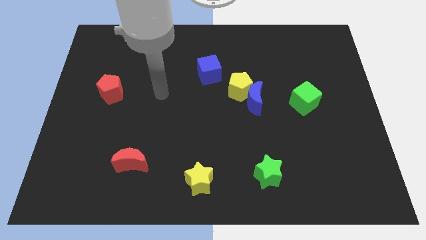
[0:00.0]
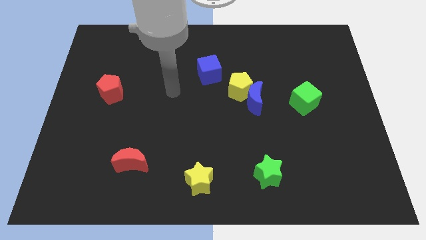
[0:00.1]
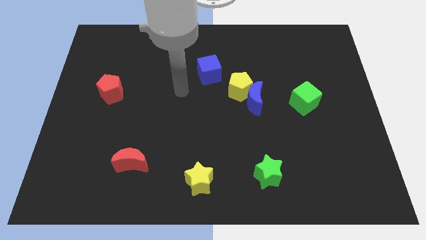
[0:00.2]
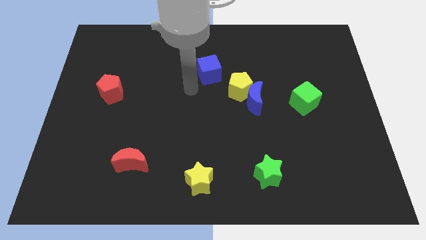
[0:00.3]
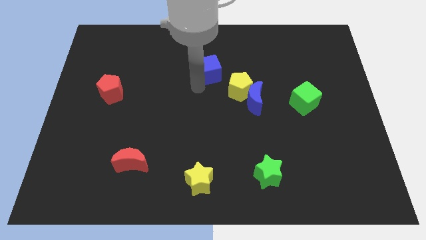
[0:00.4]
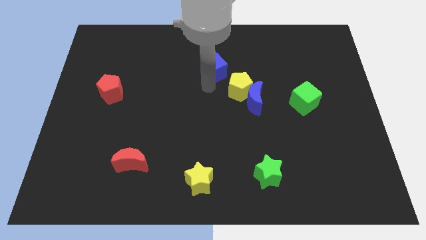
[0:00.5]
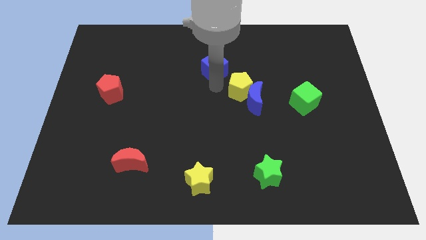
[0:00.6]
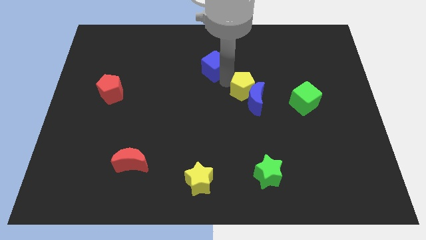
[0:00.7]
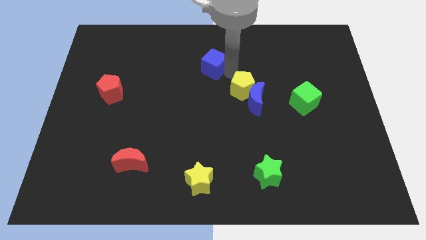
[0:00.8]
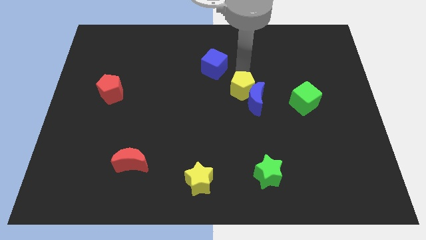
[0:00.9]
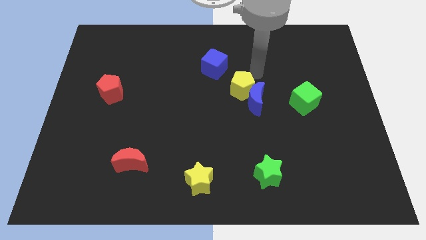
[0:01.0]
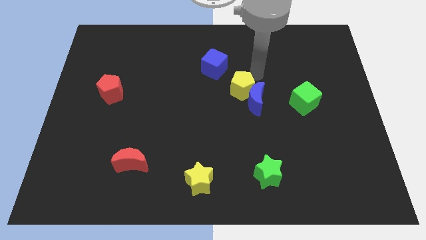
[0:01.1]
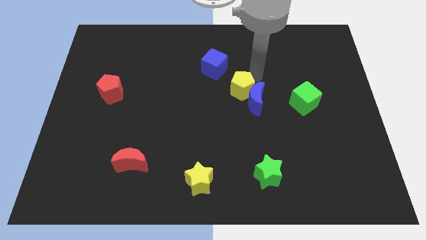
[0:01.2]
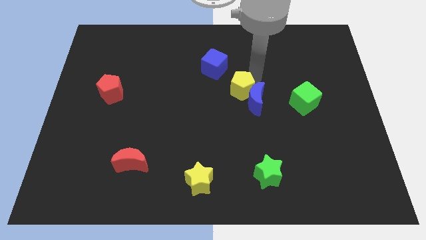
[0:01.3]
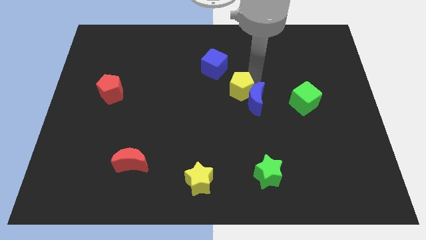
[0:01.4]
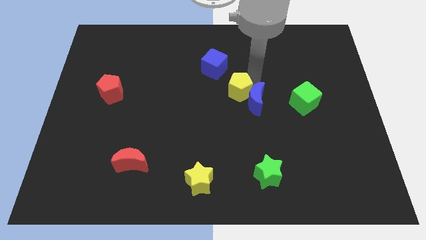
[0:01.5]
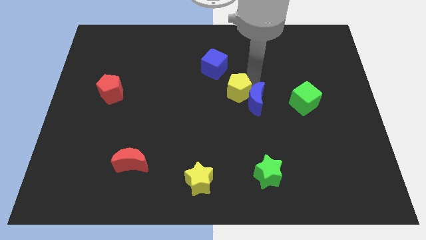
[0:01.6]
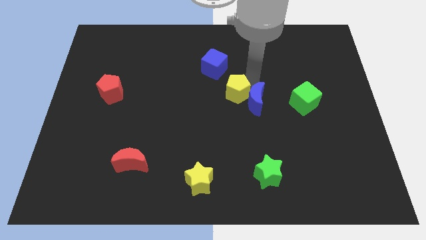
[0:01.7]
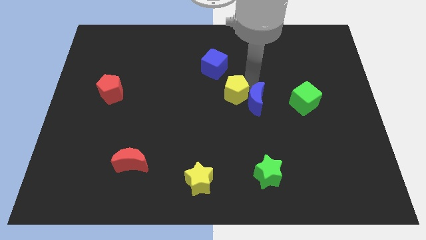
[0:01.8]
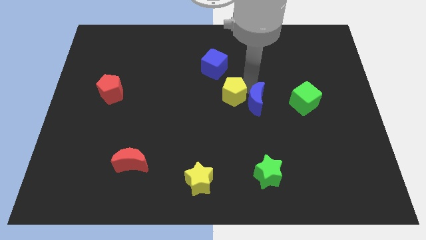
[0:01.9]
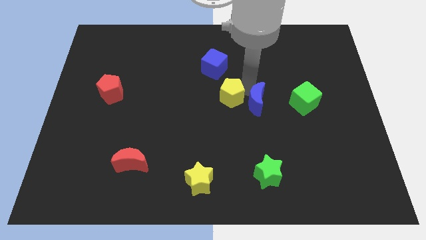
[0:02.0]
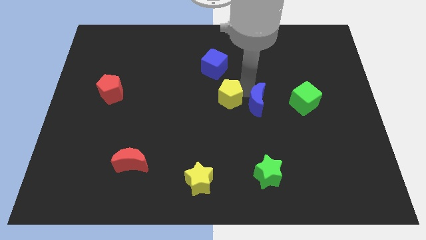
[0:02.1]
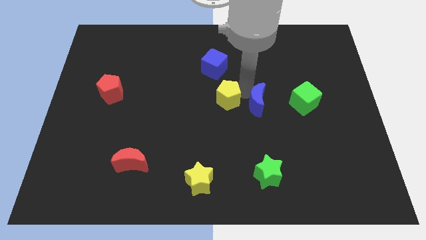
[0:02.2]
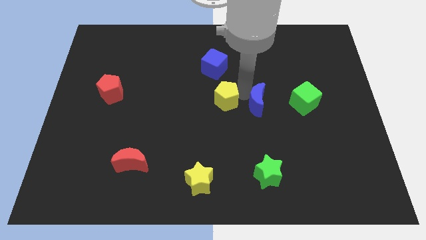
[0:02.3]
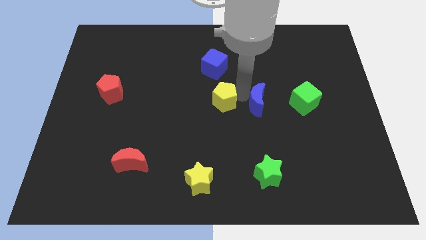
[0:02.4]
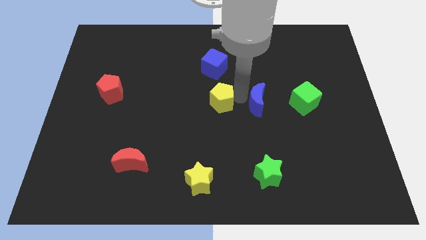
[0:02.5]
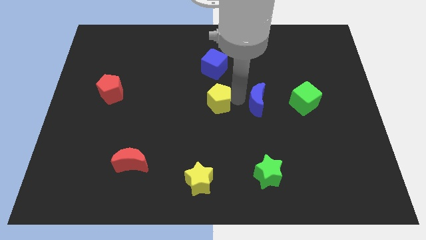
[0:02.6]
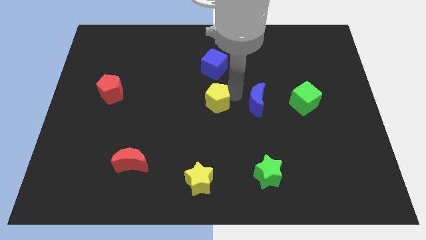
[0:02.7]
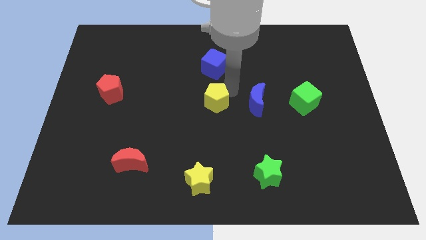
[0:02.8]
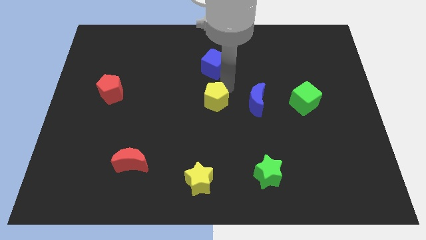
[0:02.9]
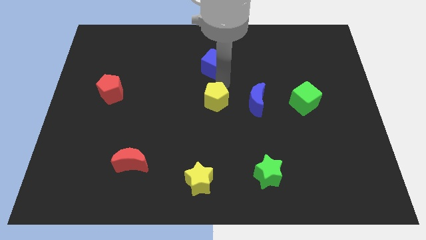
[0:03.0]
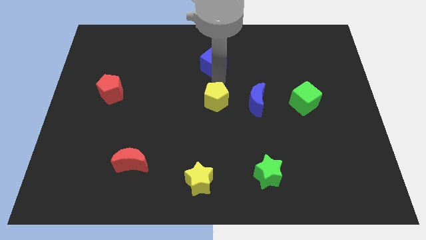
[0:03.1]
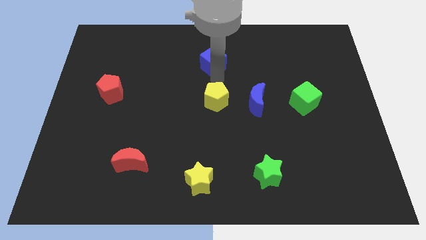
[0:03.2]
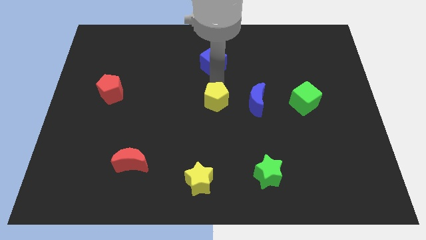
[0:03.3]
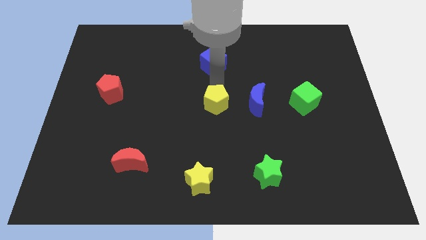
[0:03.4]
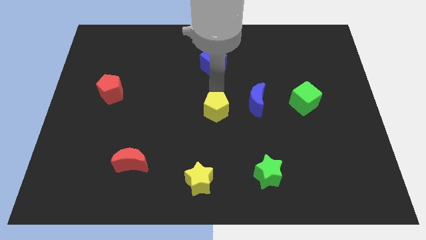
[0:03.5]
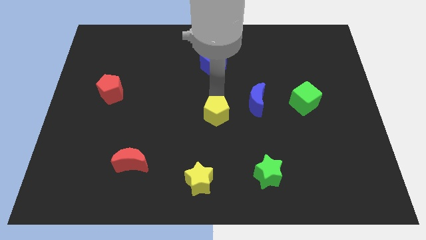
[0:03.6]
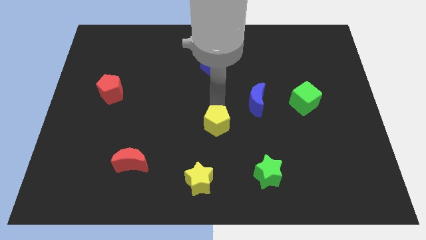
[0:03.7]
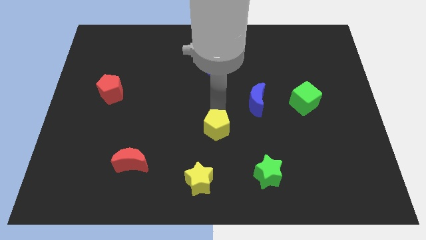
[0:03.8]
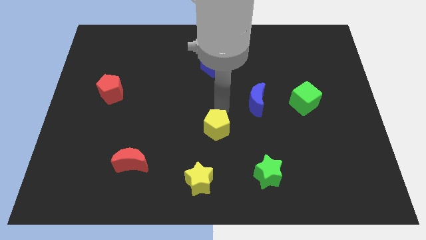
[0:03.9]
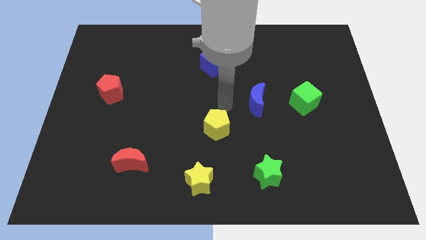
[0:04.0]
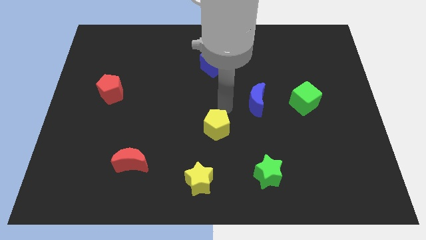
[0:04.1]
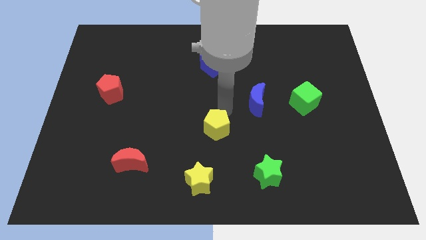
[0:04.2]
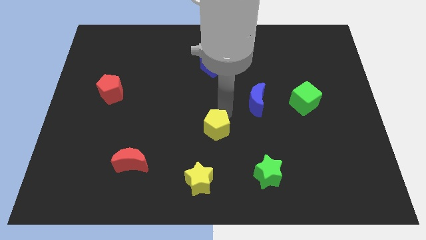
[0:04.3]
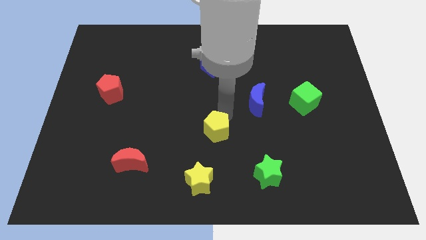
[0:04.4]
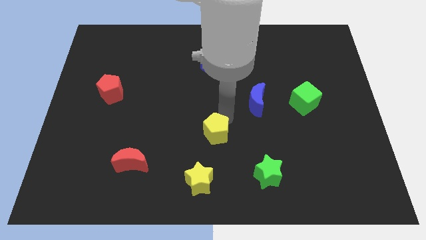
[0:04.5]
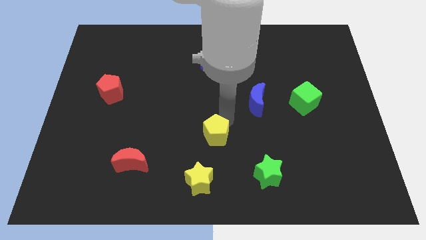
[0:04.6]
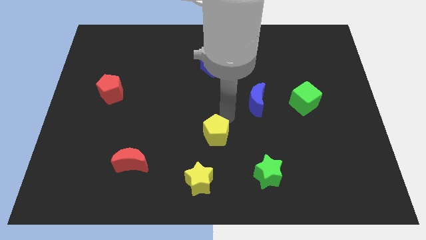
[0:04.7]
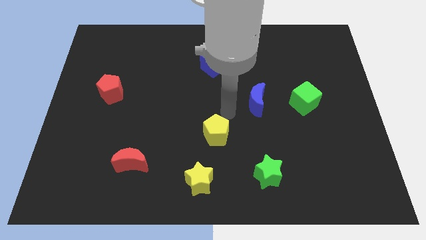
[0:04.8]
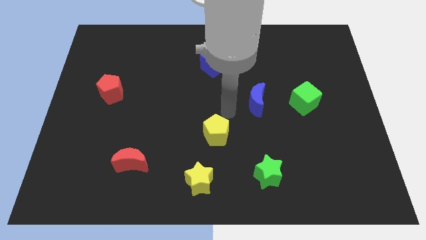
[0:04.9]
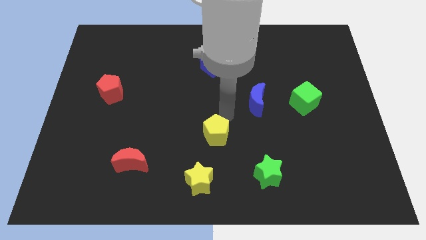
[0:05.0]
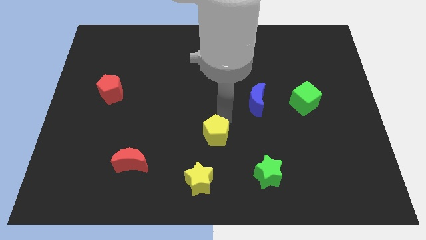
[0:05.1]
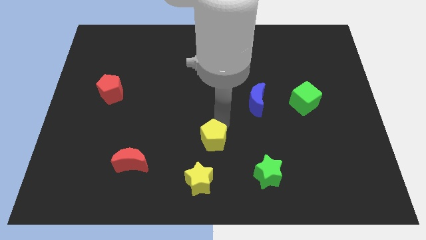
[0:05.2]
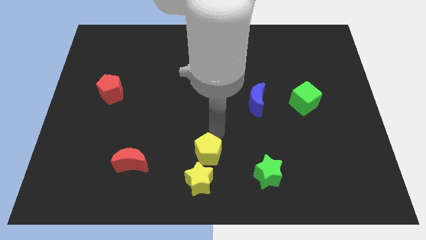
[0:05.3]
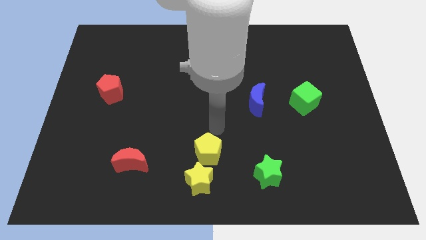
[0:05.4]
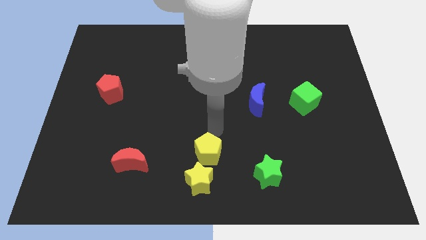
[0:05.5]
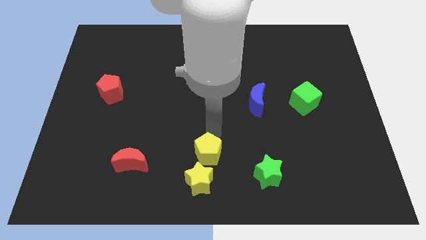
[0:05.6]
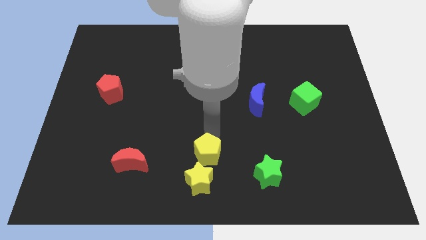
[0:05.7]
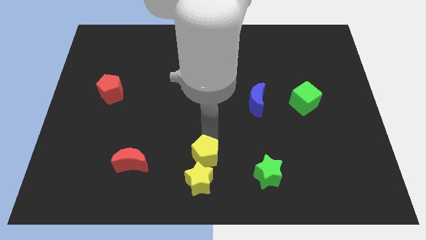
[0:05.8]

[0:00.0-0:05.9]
slide the yellow pentagon to the yellow star

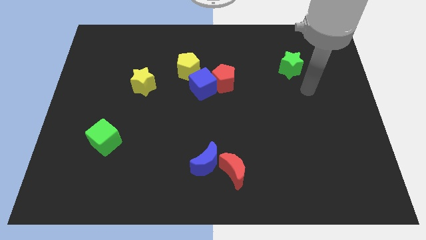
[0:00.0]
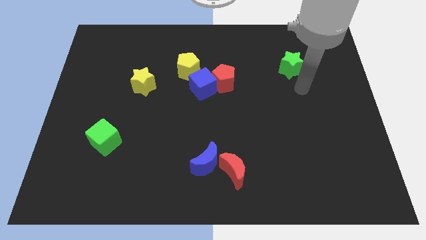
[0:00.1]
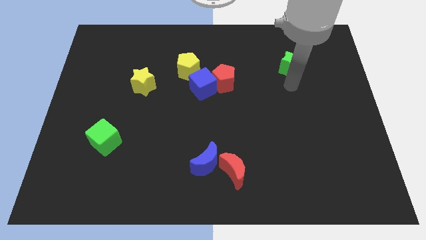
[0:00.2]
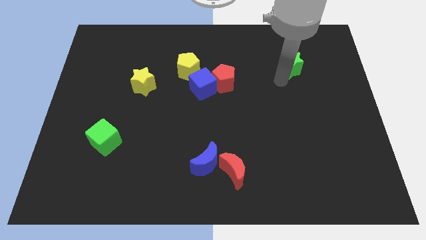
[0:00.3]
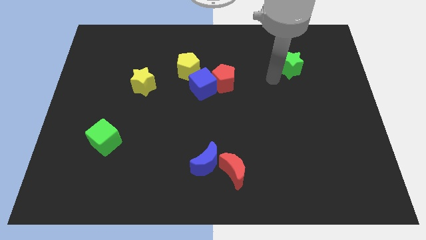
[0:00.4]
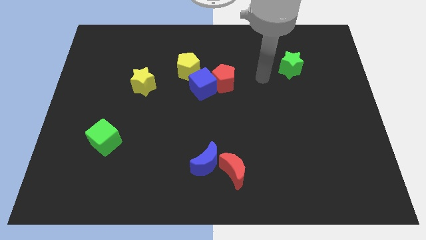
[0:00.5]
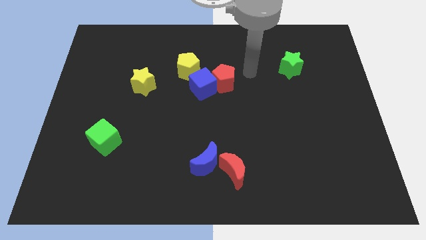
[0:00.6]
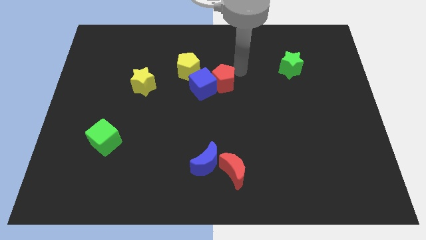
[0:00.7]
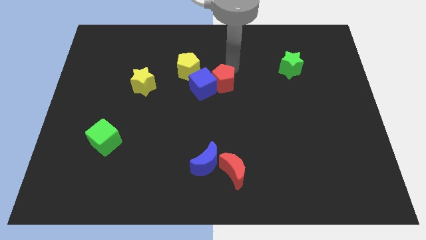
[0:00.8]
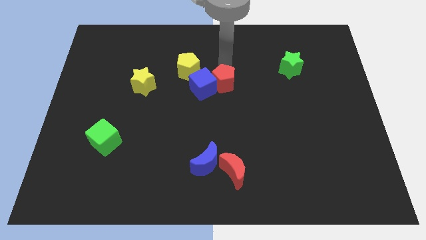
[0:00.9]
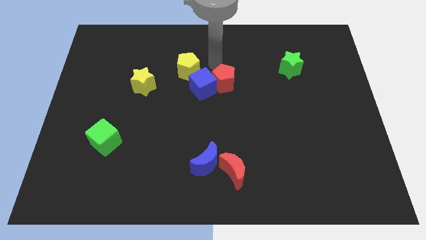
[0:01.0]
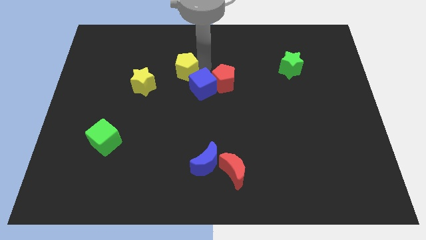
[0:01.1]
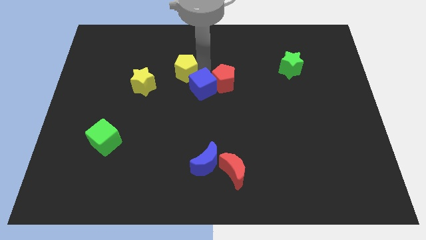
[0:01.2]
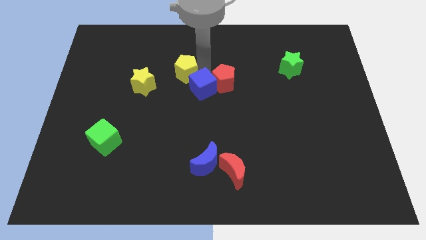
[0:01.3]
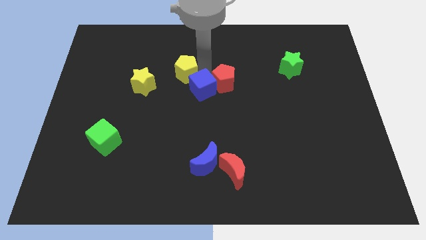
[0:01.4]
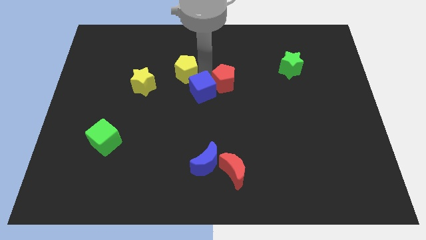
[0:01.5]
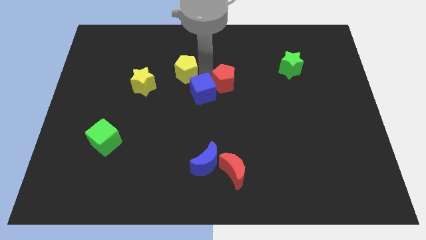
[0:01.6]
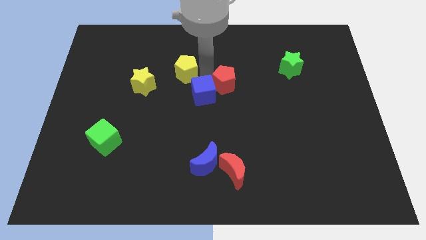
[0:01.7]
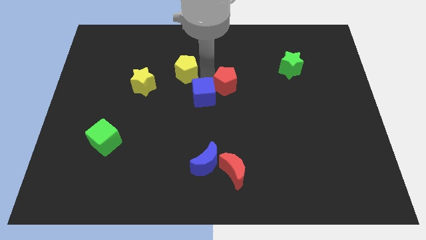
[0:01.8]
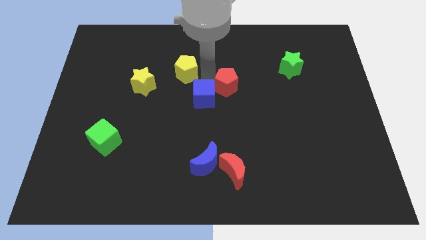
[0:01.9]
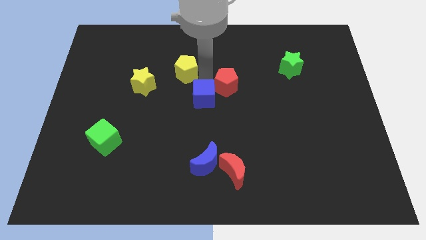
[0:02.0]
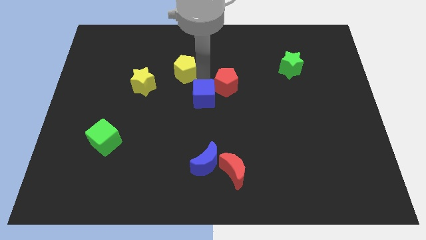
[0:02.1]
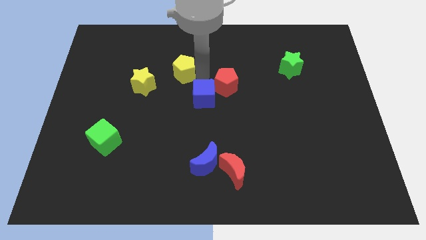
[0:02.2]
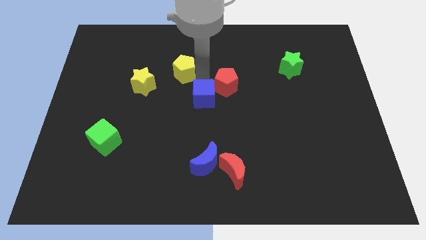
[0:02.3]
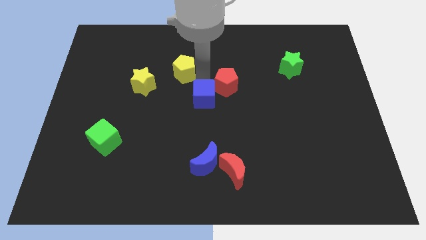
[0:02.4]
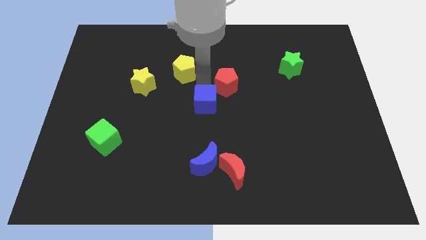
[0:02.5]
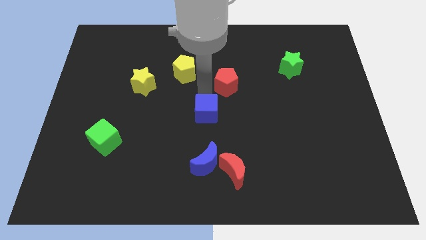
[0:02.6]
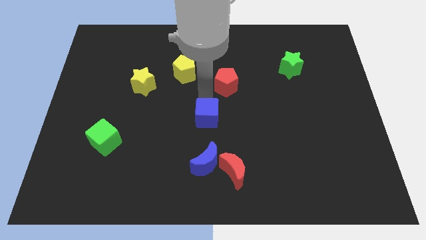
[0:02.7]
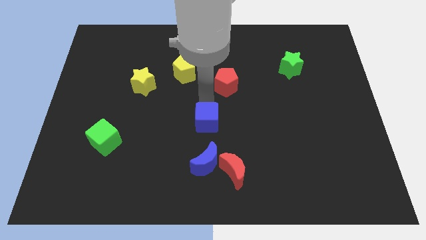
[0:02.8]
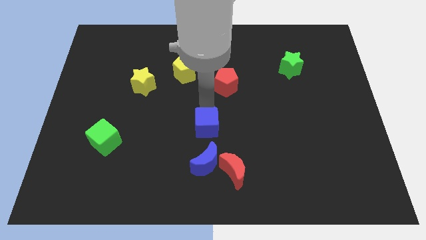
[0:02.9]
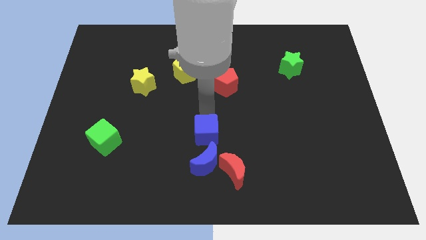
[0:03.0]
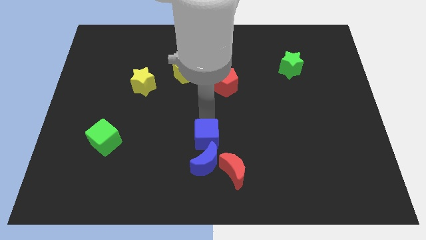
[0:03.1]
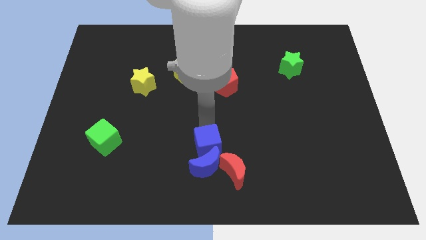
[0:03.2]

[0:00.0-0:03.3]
push the blue cube to the blue moon
